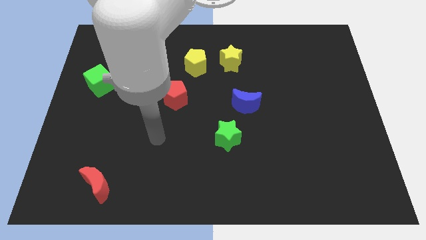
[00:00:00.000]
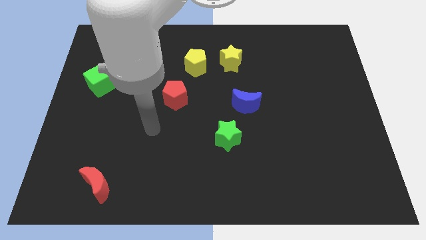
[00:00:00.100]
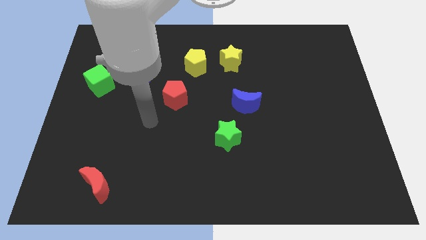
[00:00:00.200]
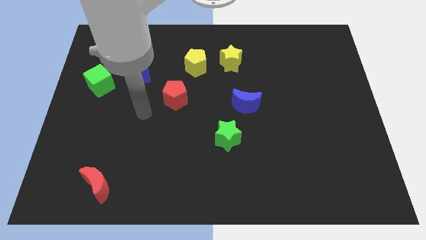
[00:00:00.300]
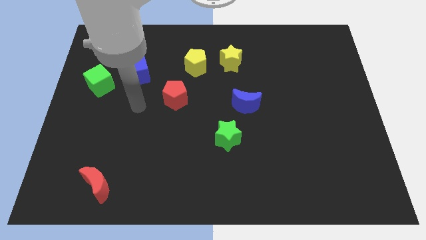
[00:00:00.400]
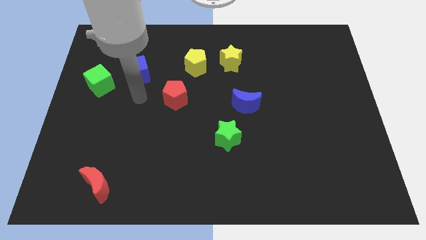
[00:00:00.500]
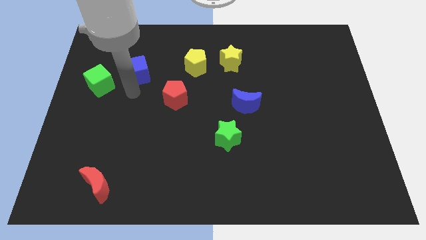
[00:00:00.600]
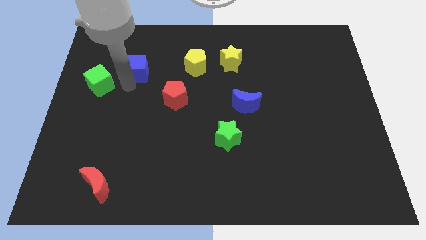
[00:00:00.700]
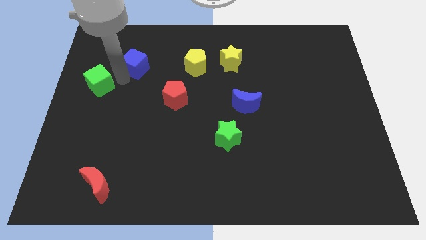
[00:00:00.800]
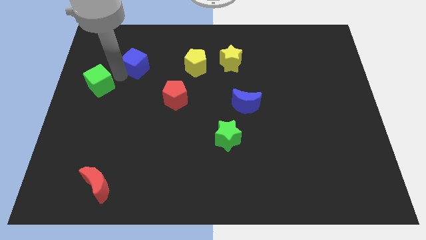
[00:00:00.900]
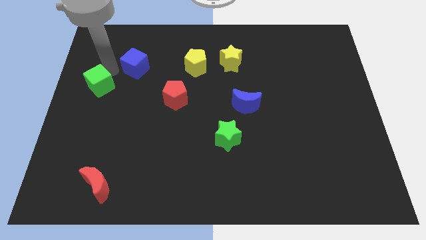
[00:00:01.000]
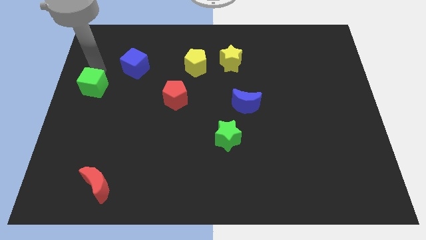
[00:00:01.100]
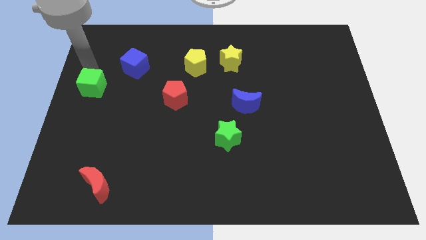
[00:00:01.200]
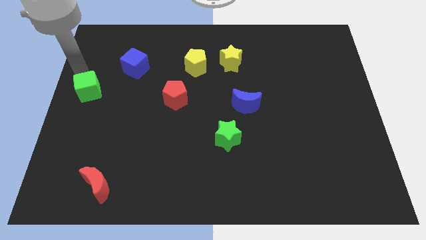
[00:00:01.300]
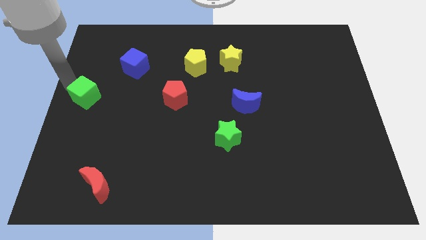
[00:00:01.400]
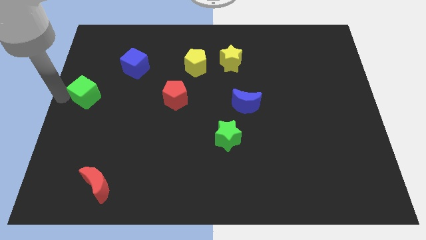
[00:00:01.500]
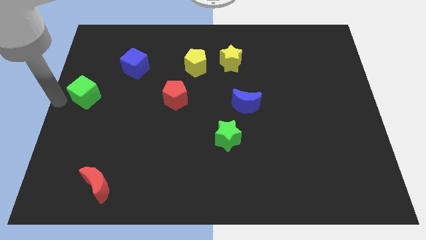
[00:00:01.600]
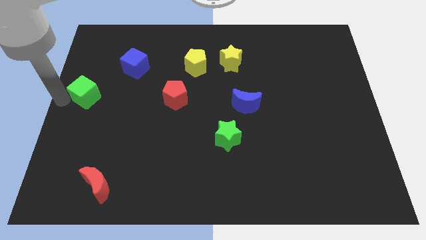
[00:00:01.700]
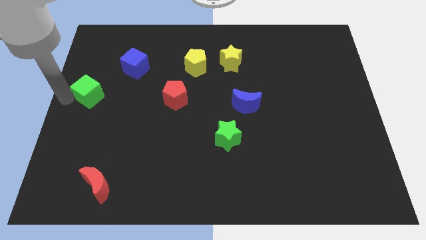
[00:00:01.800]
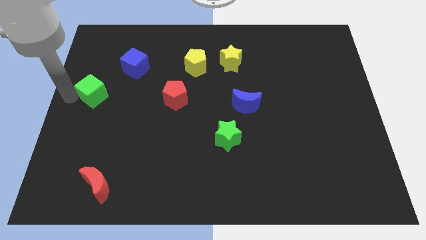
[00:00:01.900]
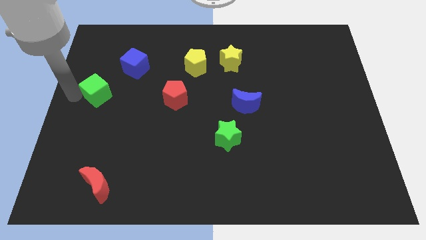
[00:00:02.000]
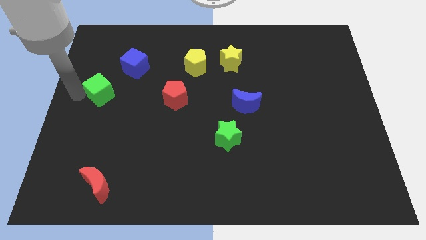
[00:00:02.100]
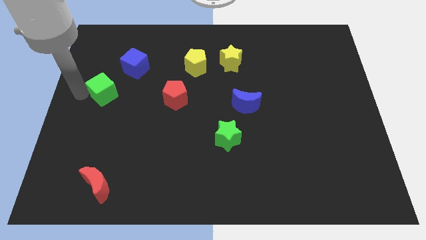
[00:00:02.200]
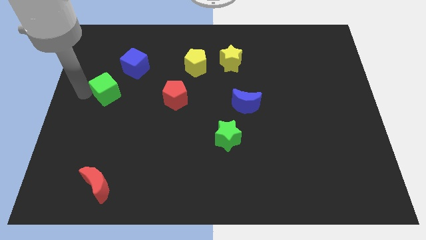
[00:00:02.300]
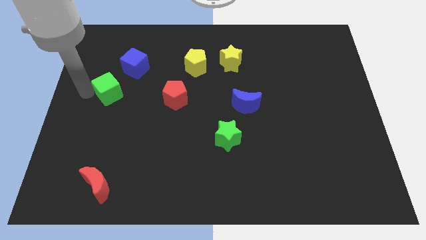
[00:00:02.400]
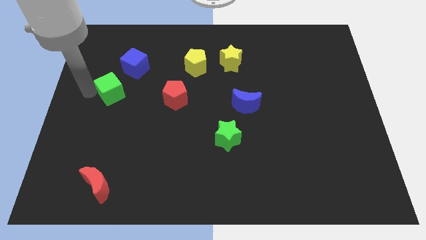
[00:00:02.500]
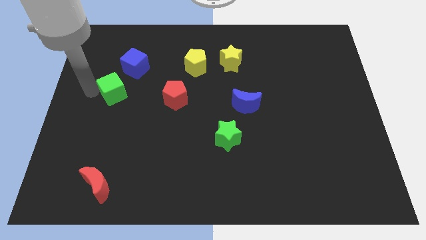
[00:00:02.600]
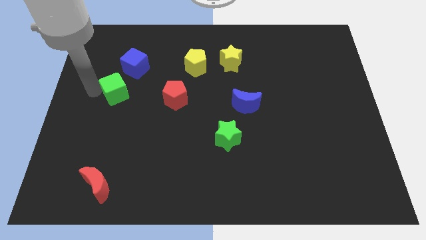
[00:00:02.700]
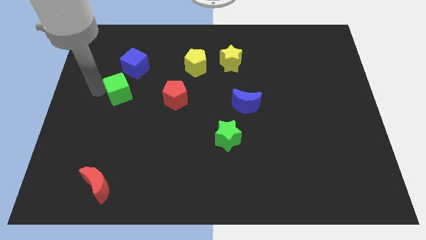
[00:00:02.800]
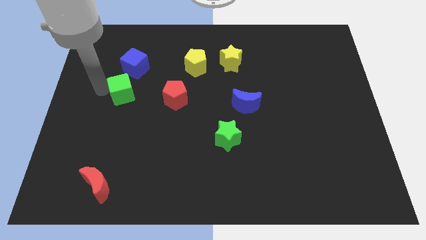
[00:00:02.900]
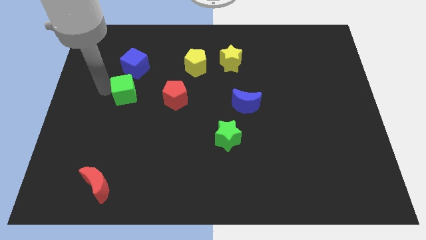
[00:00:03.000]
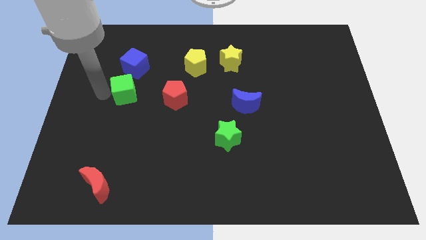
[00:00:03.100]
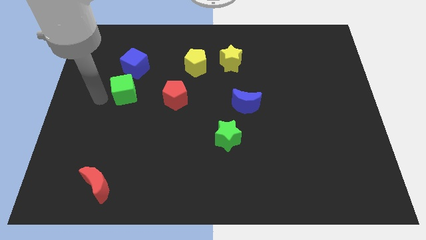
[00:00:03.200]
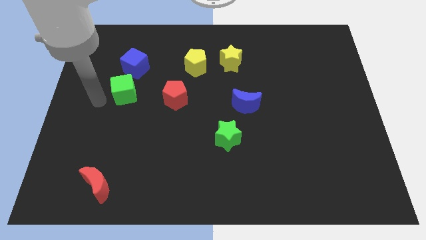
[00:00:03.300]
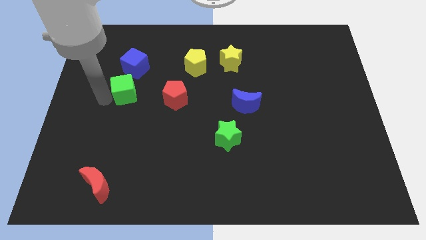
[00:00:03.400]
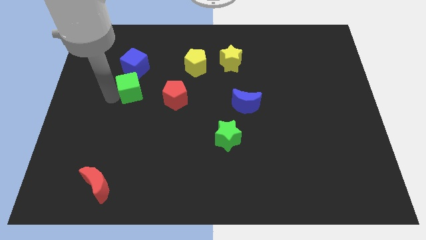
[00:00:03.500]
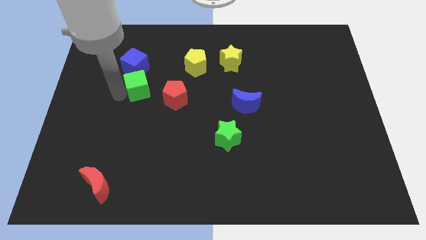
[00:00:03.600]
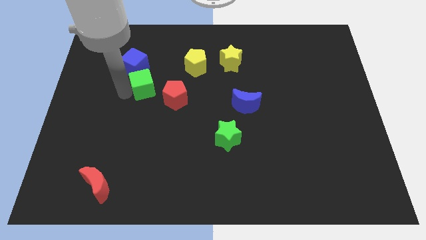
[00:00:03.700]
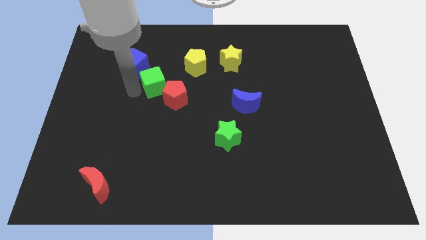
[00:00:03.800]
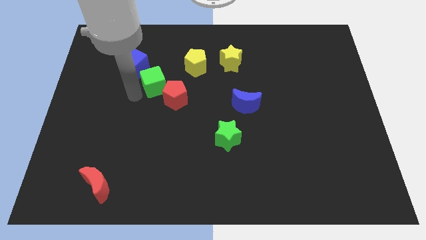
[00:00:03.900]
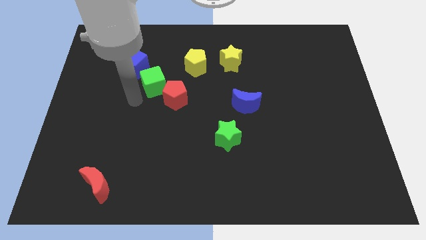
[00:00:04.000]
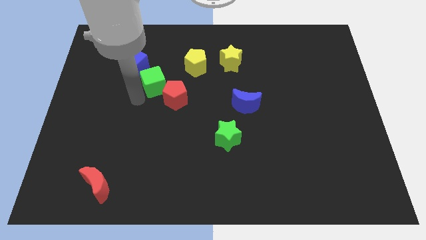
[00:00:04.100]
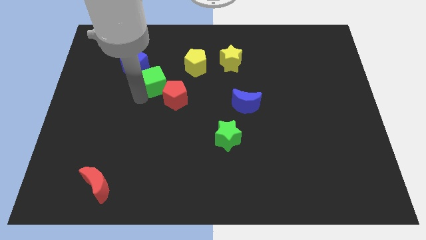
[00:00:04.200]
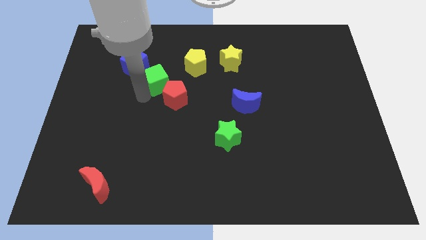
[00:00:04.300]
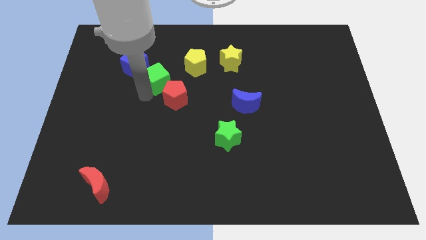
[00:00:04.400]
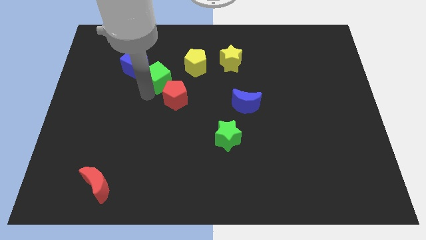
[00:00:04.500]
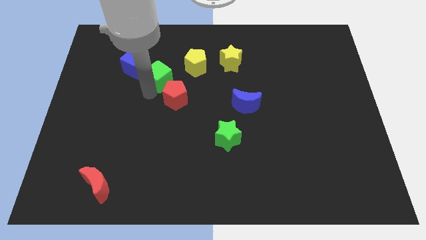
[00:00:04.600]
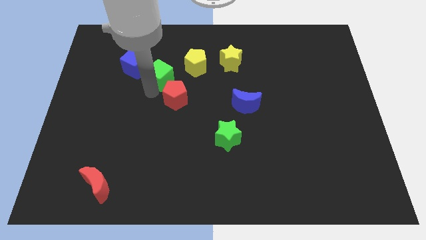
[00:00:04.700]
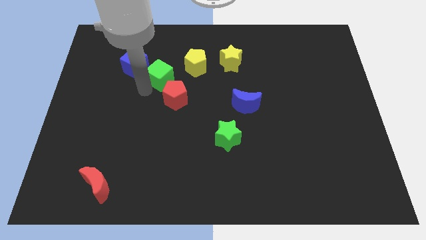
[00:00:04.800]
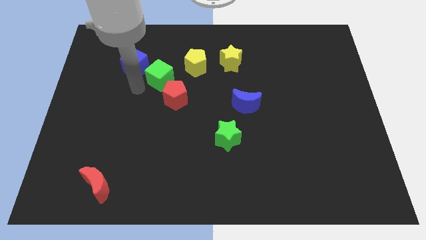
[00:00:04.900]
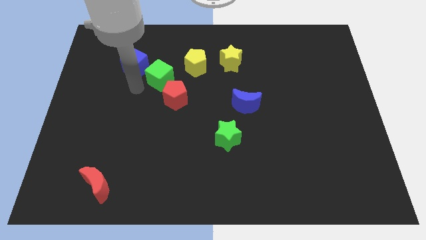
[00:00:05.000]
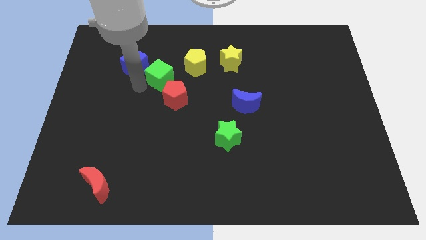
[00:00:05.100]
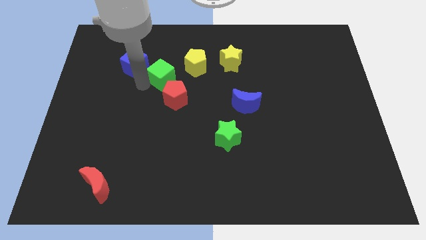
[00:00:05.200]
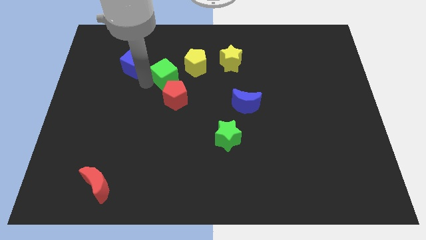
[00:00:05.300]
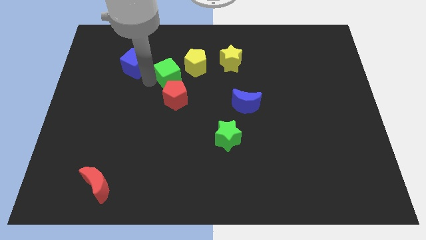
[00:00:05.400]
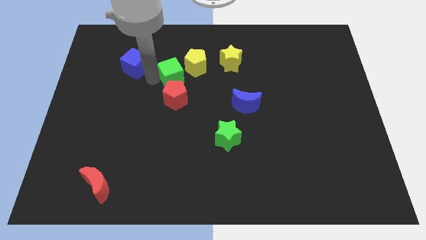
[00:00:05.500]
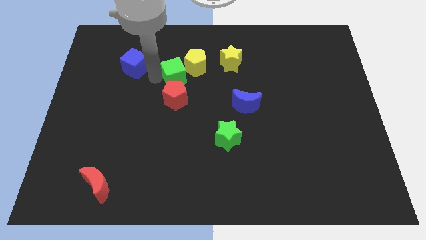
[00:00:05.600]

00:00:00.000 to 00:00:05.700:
move the green cube towards the yellow pentagon

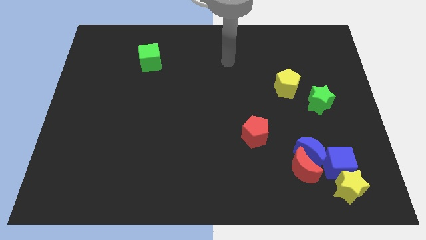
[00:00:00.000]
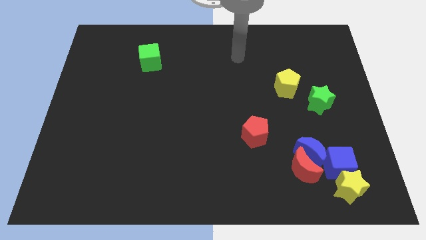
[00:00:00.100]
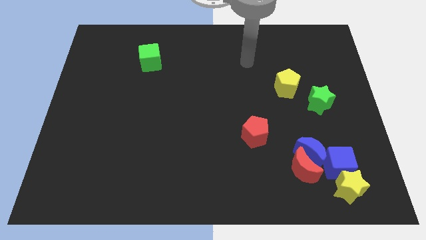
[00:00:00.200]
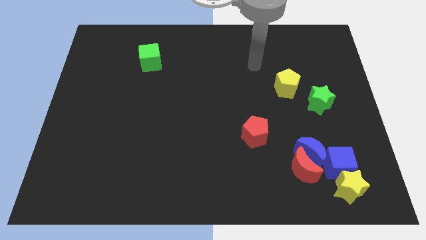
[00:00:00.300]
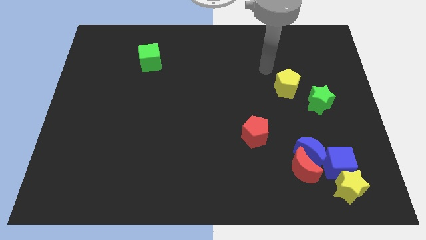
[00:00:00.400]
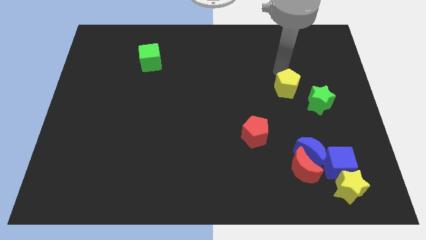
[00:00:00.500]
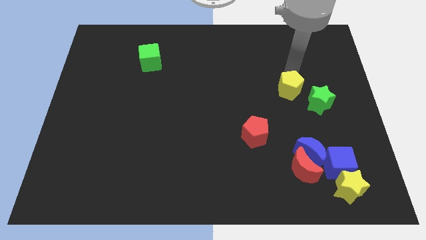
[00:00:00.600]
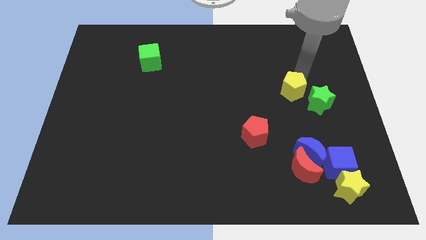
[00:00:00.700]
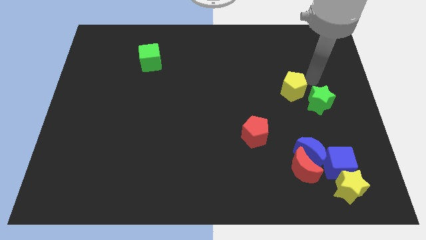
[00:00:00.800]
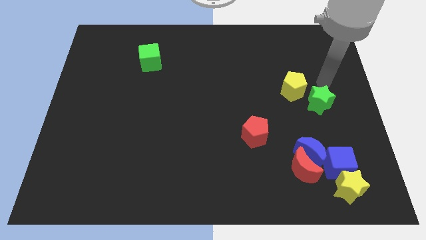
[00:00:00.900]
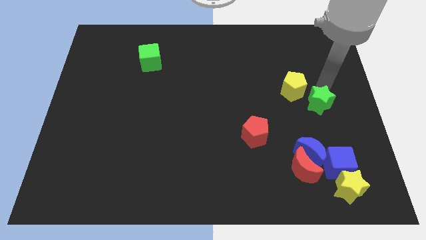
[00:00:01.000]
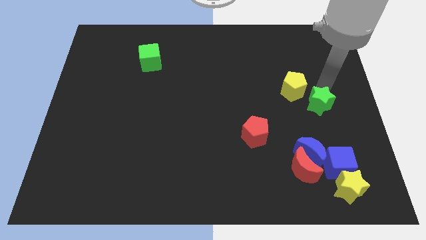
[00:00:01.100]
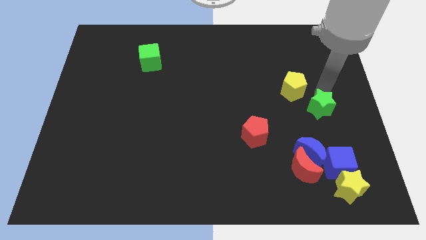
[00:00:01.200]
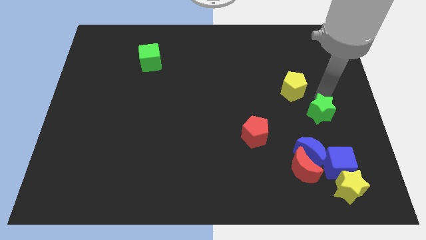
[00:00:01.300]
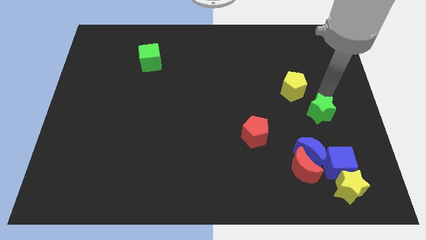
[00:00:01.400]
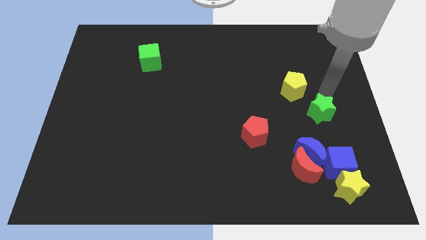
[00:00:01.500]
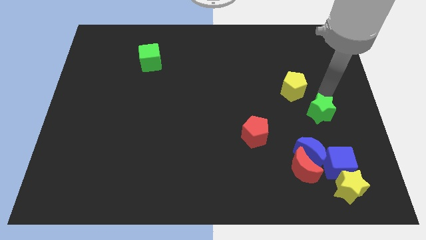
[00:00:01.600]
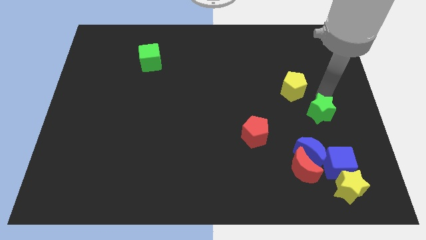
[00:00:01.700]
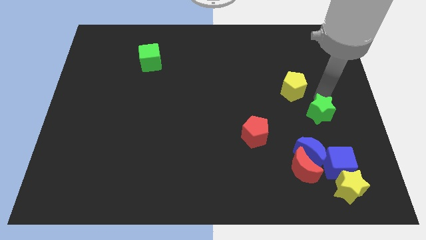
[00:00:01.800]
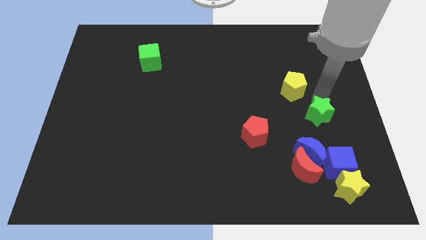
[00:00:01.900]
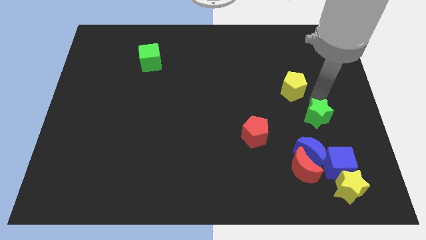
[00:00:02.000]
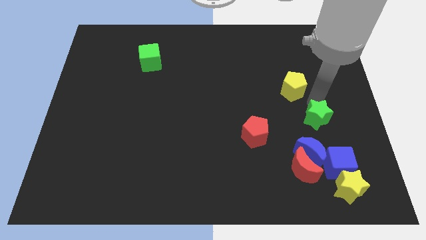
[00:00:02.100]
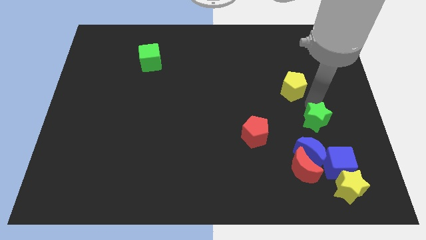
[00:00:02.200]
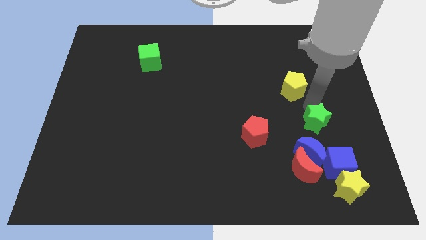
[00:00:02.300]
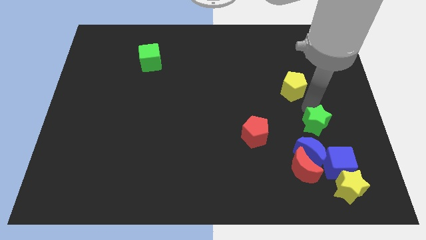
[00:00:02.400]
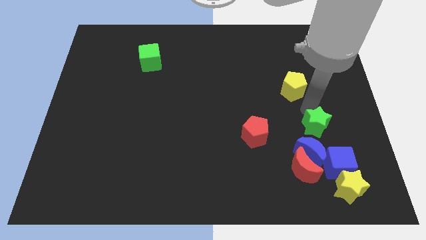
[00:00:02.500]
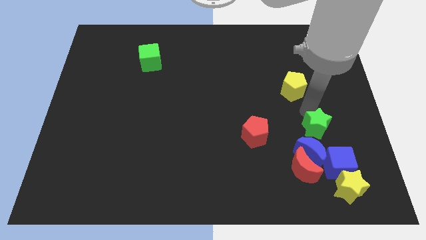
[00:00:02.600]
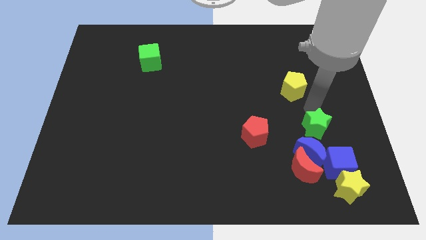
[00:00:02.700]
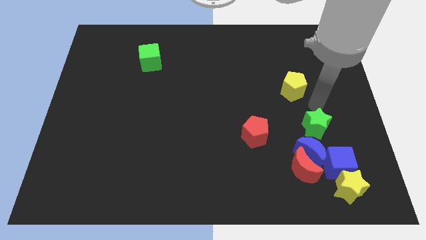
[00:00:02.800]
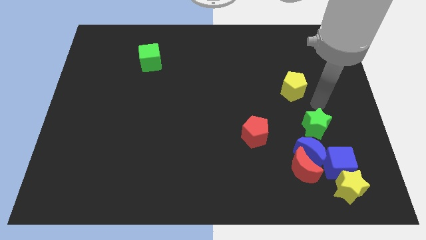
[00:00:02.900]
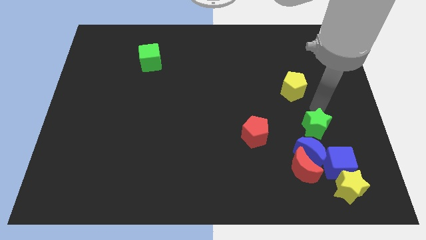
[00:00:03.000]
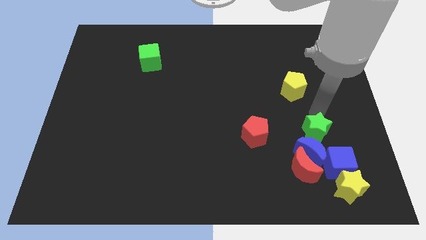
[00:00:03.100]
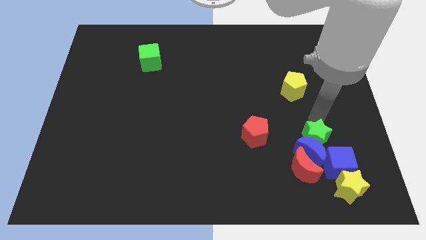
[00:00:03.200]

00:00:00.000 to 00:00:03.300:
move the green star towards the blue moon
